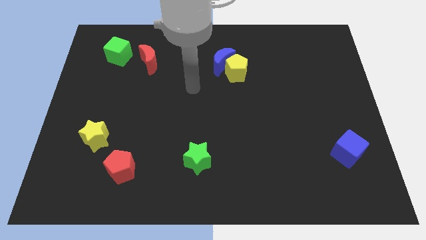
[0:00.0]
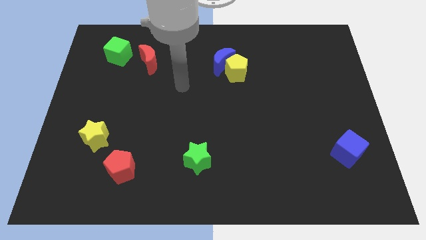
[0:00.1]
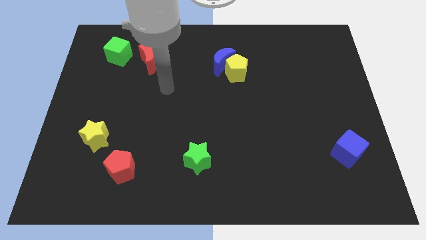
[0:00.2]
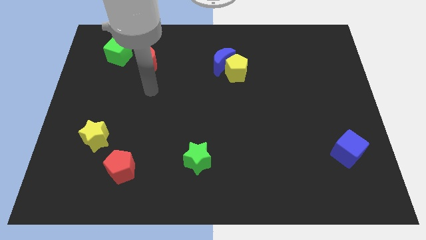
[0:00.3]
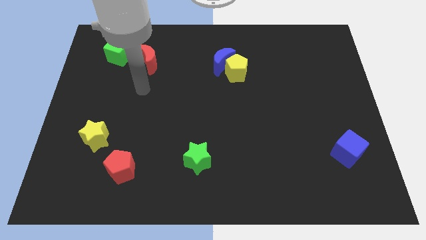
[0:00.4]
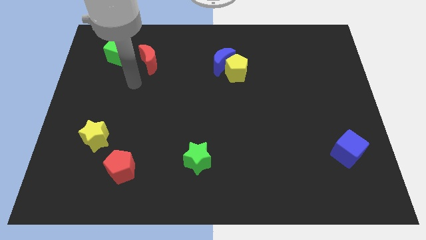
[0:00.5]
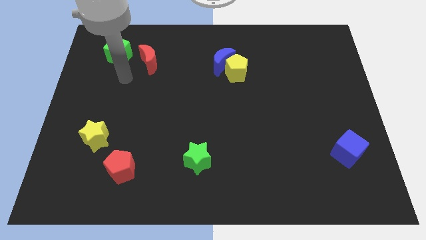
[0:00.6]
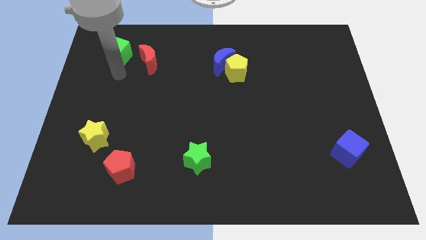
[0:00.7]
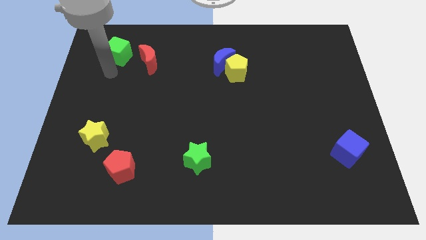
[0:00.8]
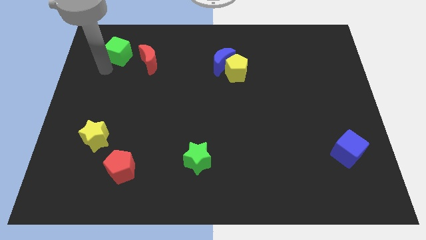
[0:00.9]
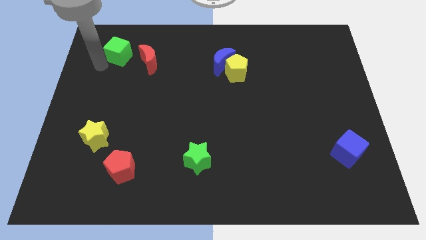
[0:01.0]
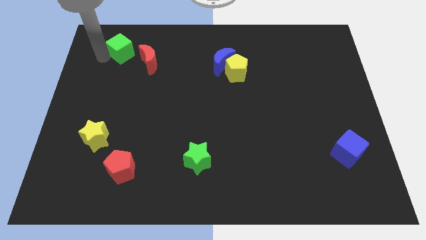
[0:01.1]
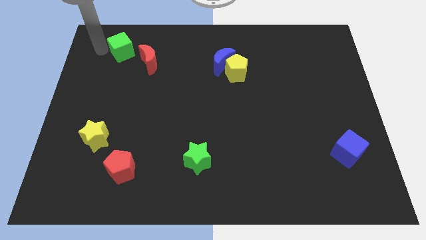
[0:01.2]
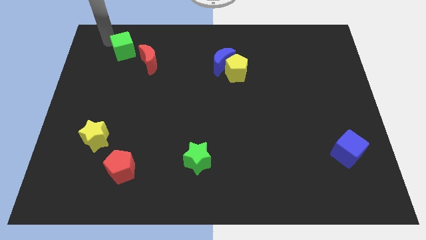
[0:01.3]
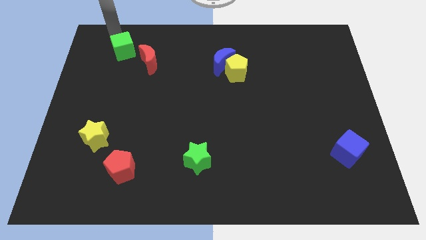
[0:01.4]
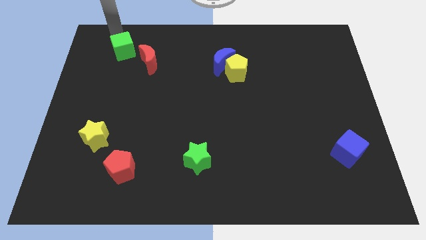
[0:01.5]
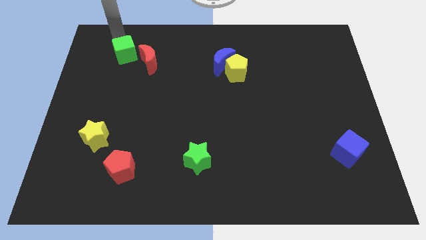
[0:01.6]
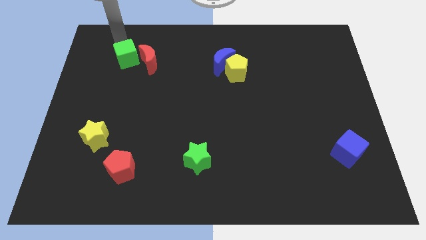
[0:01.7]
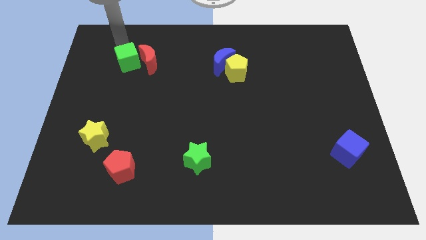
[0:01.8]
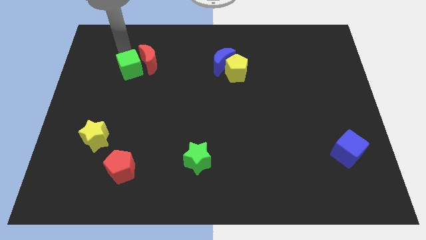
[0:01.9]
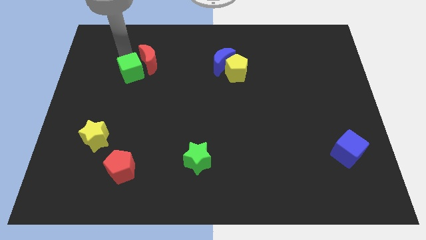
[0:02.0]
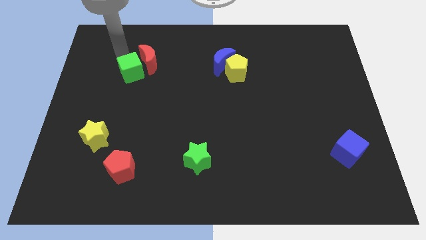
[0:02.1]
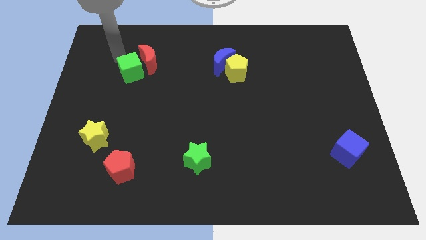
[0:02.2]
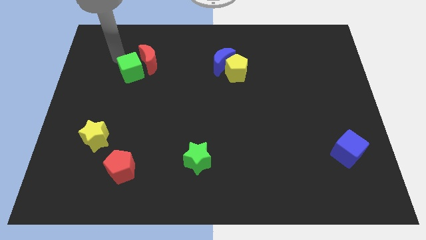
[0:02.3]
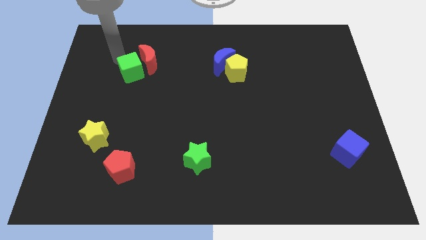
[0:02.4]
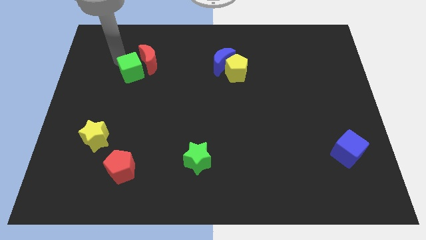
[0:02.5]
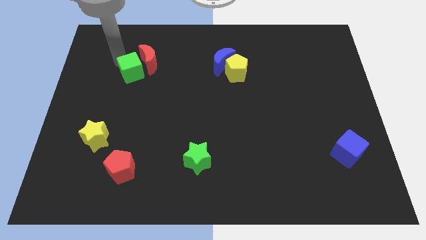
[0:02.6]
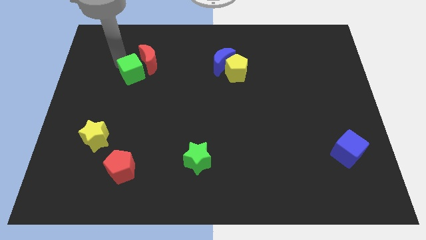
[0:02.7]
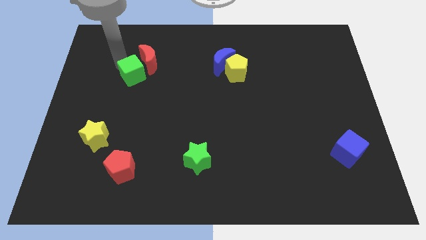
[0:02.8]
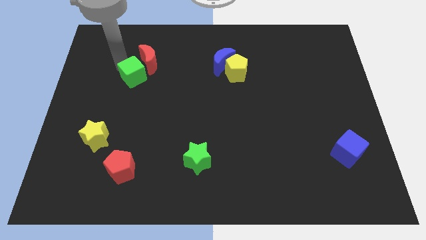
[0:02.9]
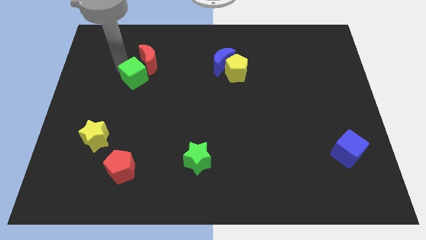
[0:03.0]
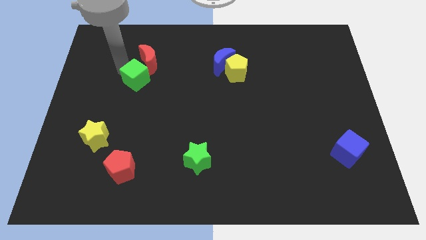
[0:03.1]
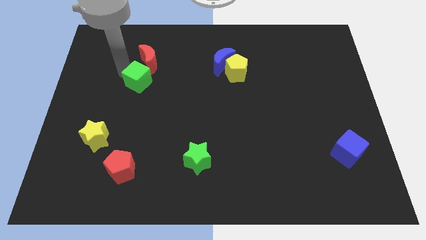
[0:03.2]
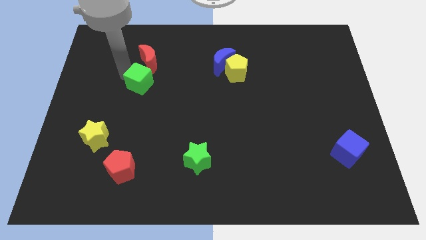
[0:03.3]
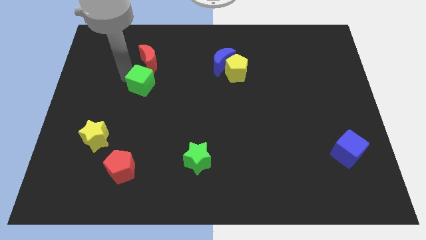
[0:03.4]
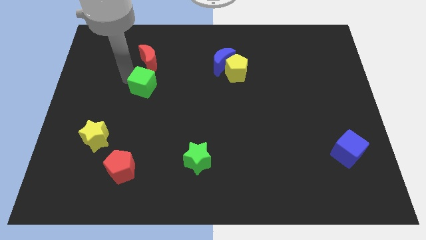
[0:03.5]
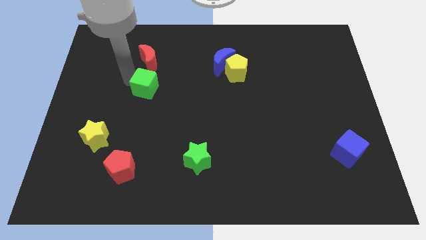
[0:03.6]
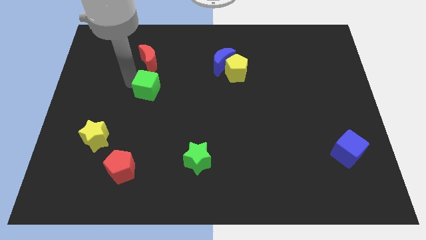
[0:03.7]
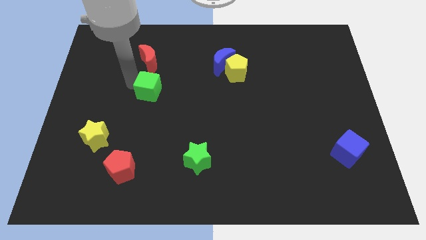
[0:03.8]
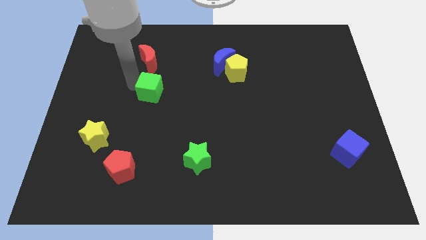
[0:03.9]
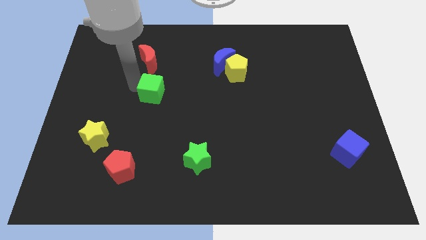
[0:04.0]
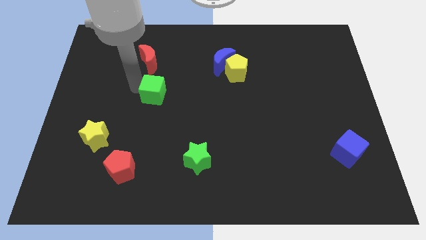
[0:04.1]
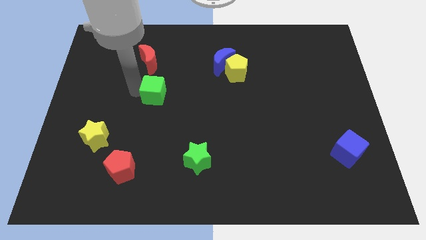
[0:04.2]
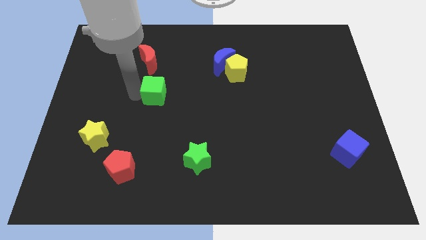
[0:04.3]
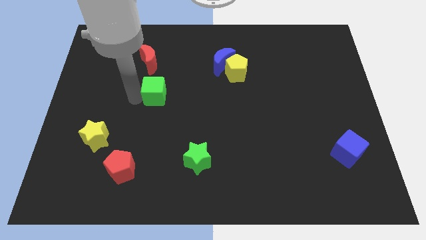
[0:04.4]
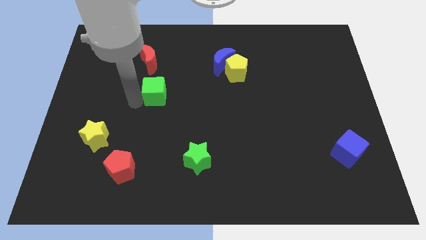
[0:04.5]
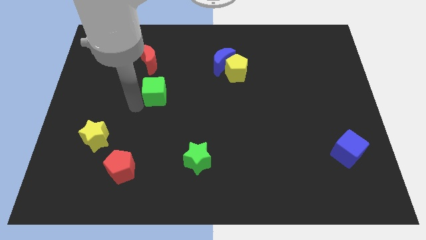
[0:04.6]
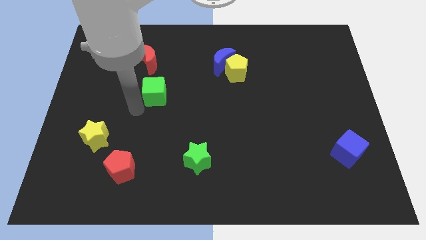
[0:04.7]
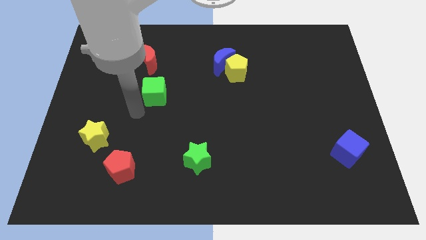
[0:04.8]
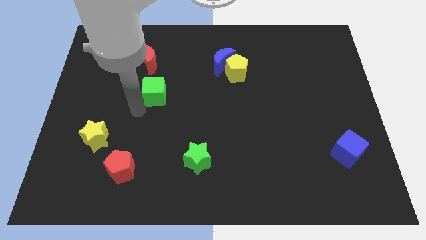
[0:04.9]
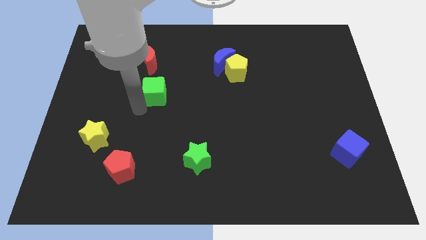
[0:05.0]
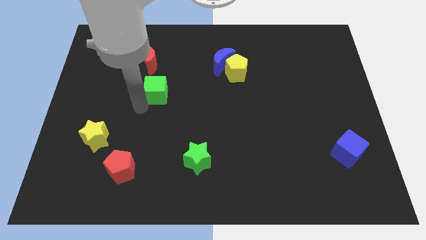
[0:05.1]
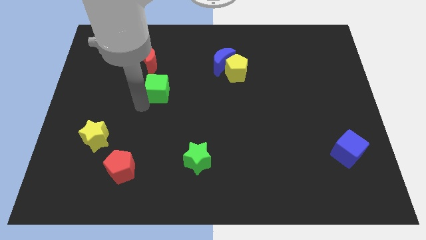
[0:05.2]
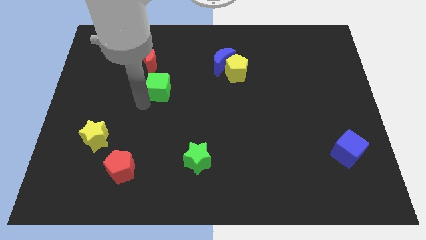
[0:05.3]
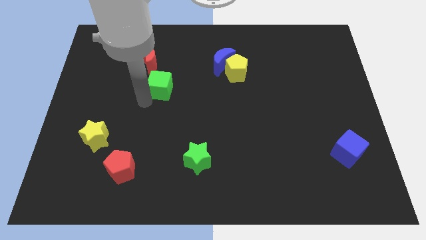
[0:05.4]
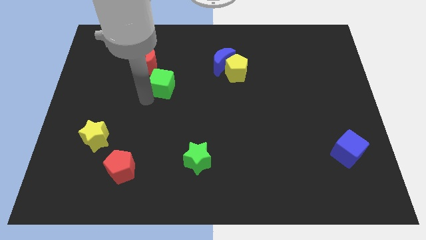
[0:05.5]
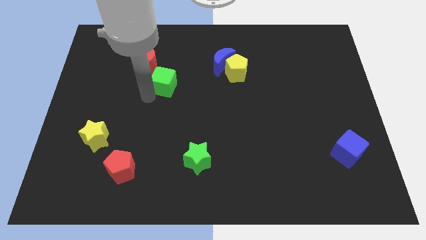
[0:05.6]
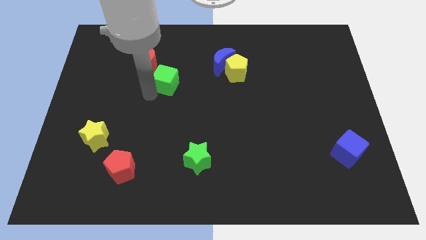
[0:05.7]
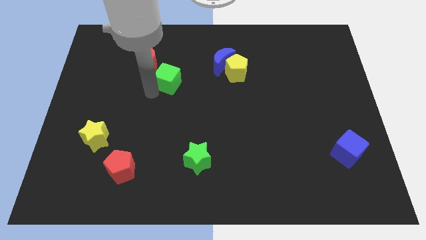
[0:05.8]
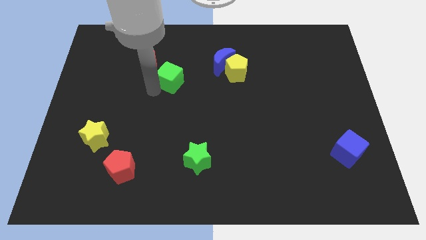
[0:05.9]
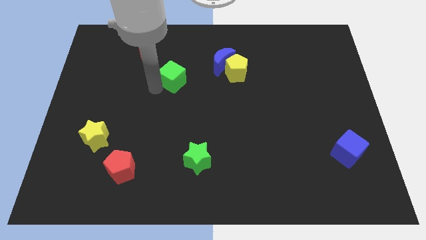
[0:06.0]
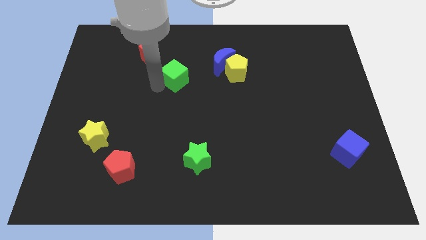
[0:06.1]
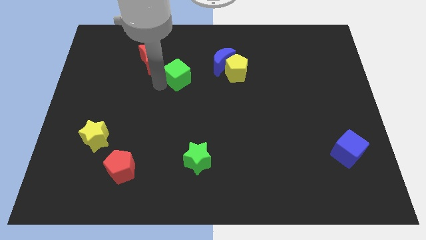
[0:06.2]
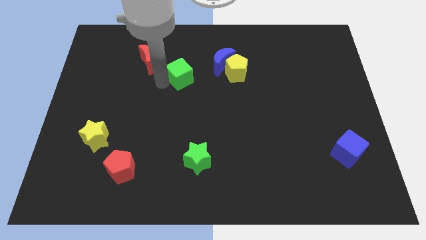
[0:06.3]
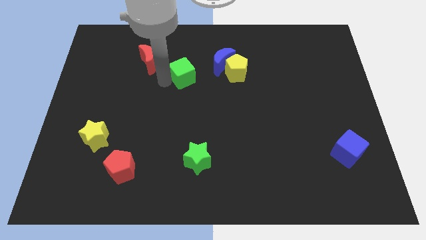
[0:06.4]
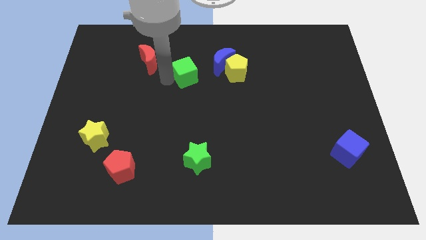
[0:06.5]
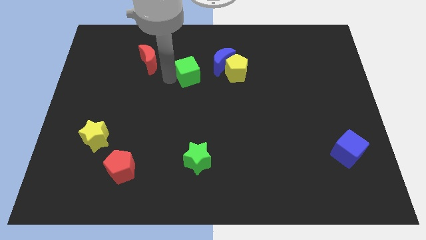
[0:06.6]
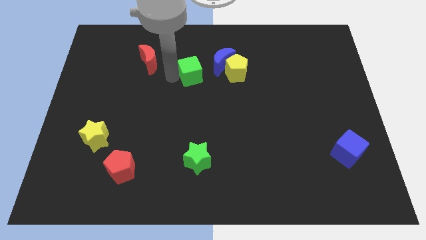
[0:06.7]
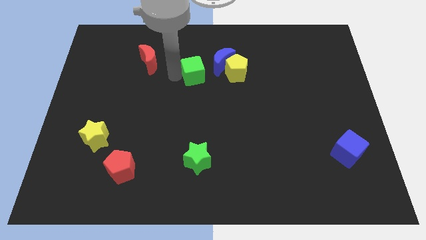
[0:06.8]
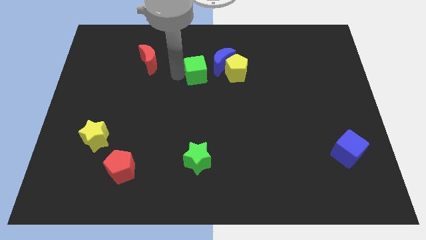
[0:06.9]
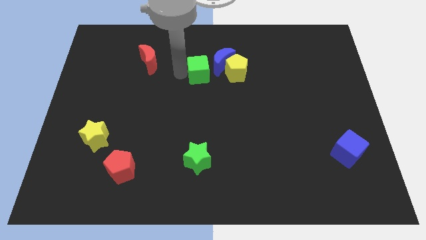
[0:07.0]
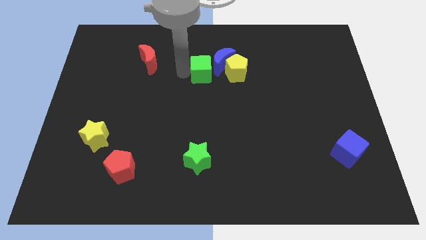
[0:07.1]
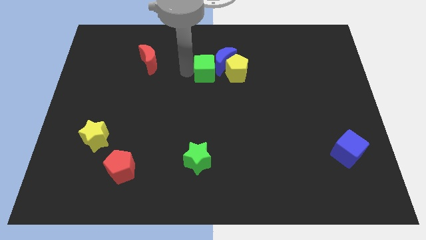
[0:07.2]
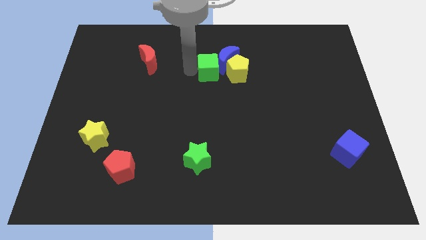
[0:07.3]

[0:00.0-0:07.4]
move the green cube to the bottom of the blue moon

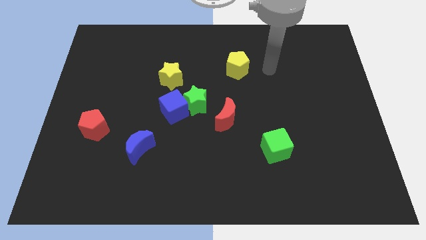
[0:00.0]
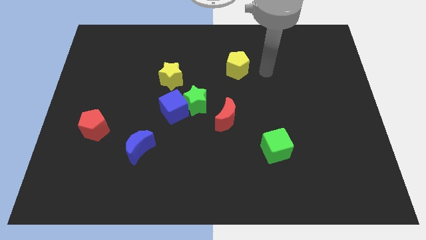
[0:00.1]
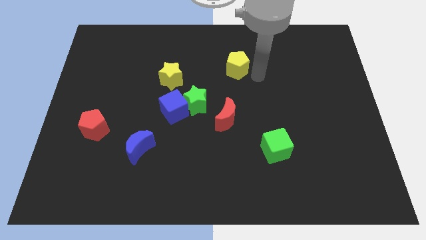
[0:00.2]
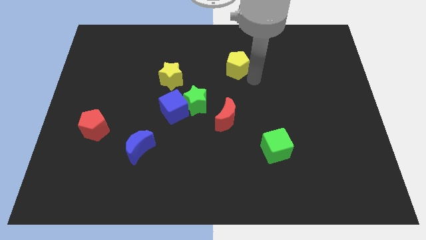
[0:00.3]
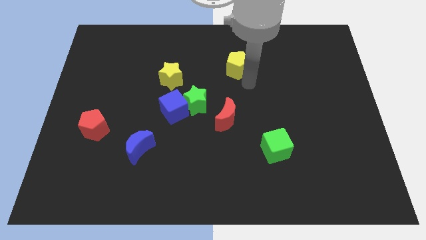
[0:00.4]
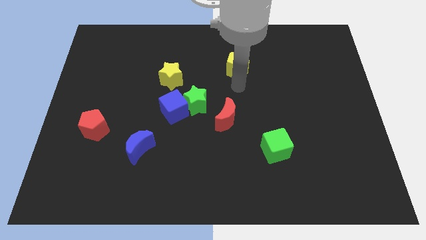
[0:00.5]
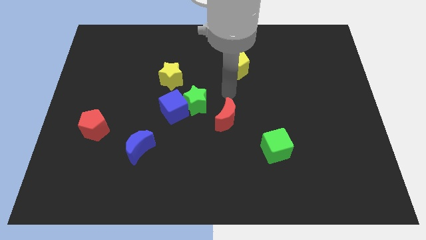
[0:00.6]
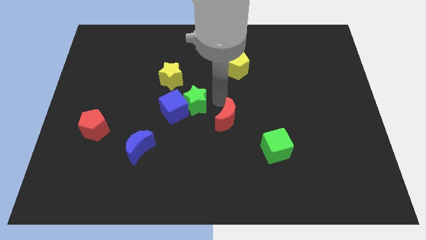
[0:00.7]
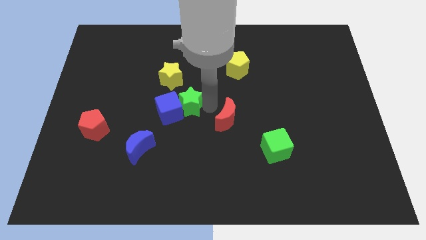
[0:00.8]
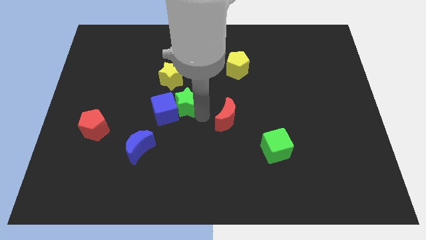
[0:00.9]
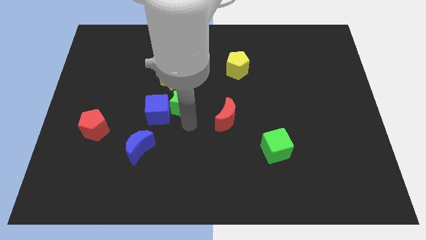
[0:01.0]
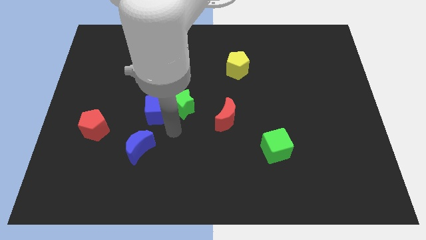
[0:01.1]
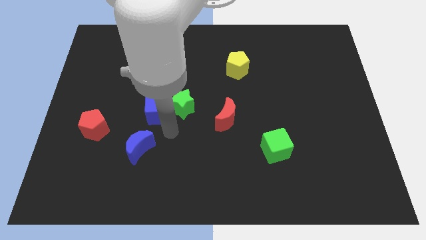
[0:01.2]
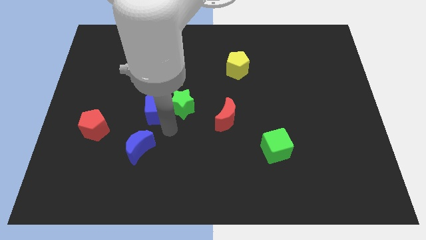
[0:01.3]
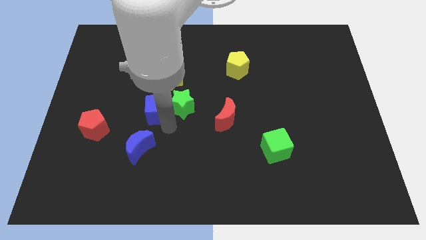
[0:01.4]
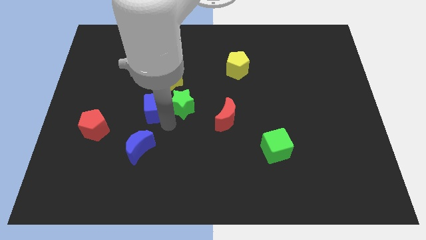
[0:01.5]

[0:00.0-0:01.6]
push the blue cube to the bottom left side of the yellow star
